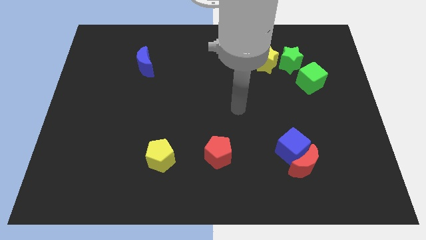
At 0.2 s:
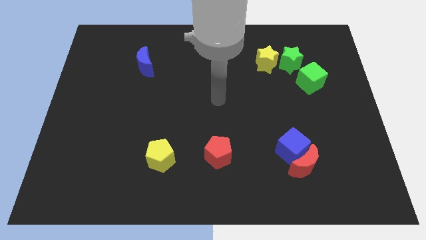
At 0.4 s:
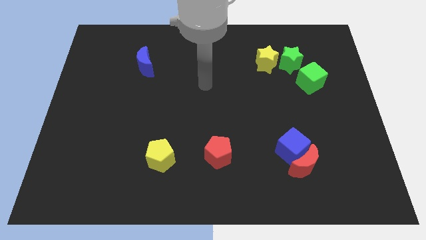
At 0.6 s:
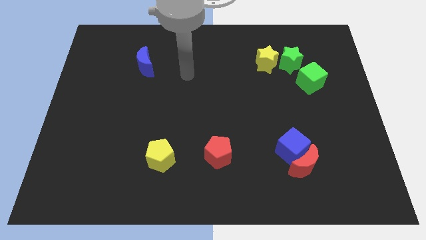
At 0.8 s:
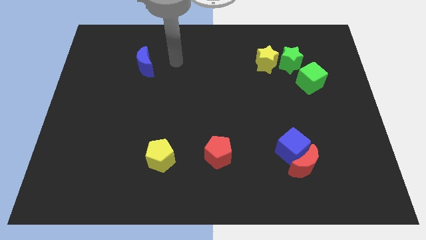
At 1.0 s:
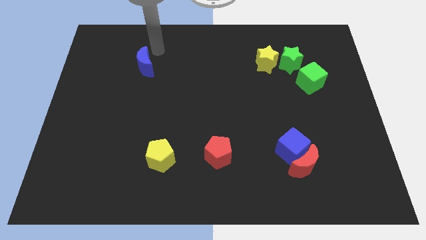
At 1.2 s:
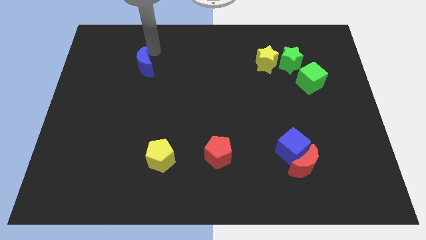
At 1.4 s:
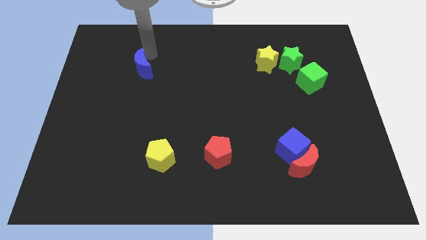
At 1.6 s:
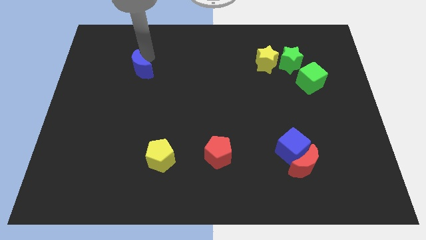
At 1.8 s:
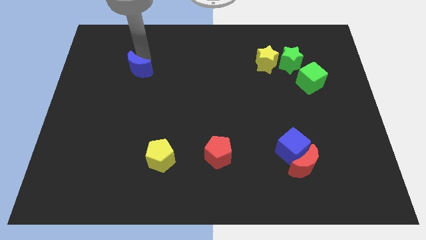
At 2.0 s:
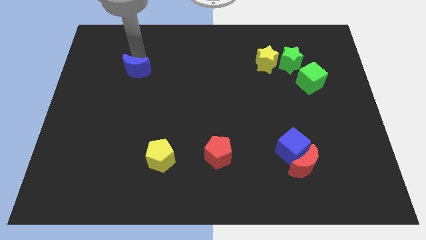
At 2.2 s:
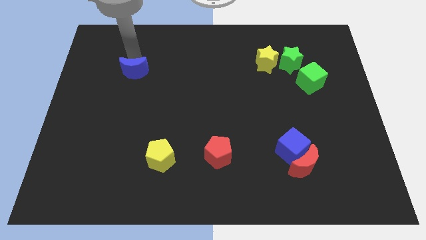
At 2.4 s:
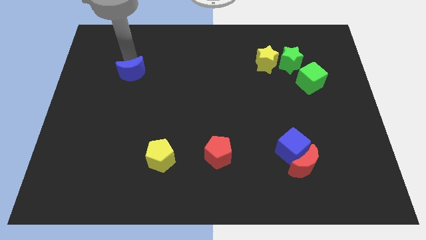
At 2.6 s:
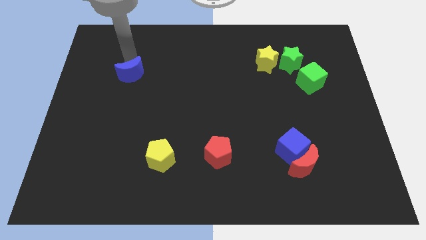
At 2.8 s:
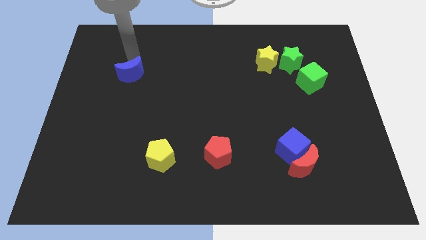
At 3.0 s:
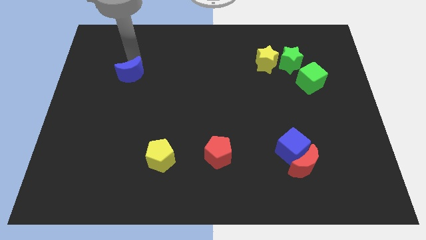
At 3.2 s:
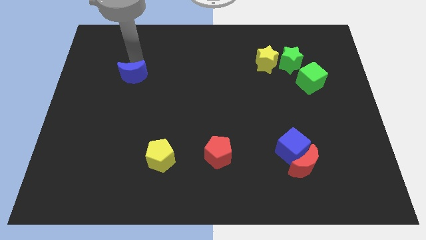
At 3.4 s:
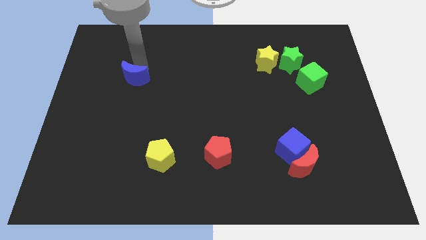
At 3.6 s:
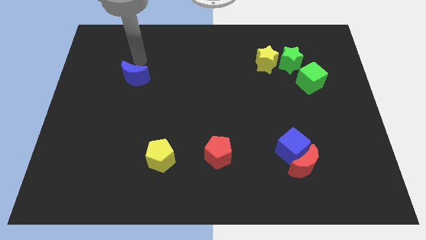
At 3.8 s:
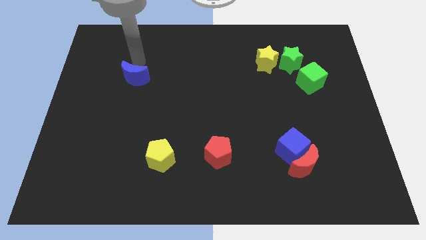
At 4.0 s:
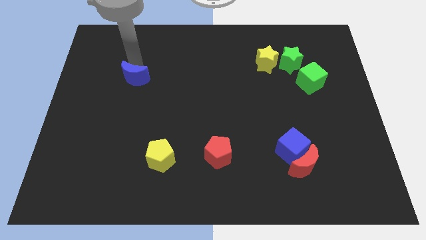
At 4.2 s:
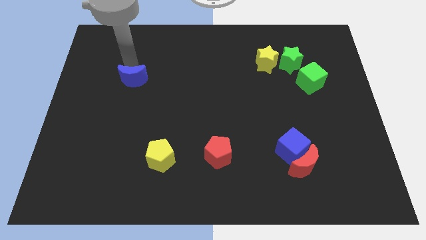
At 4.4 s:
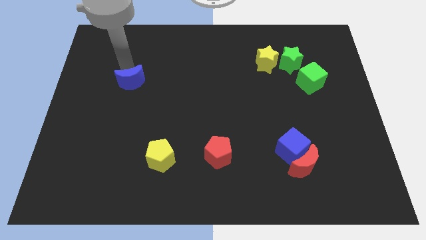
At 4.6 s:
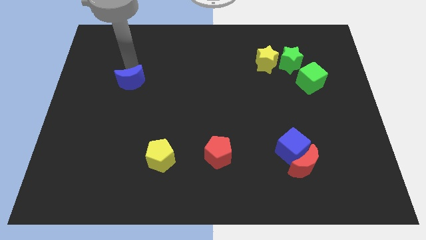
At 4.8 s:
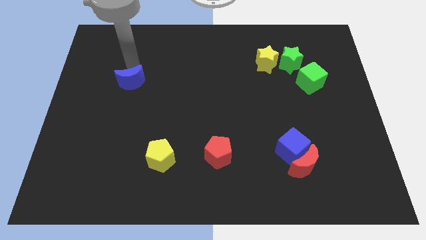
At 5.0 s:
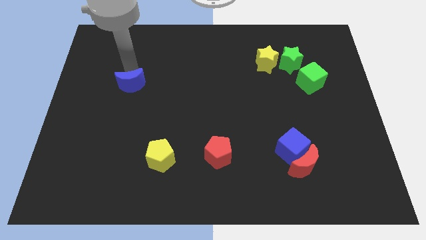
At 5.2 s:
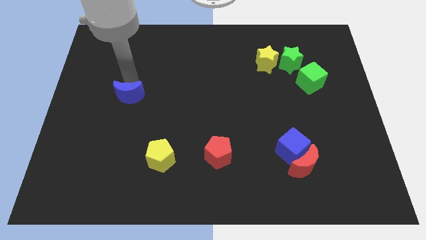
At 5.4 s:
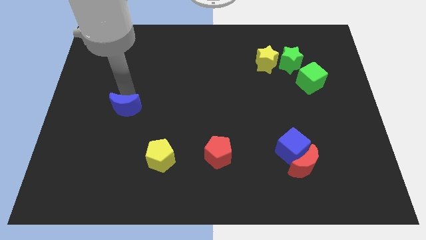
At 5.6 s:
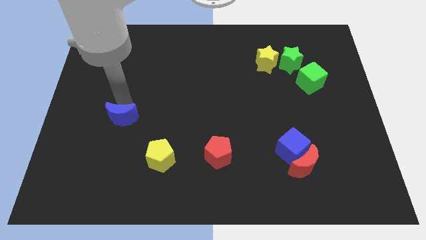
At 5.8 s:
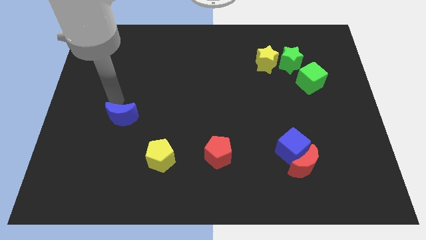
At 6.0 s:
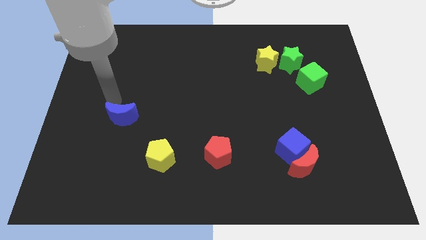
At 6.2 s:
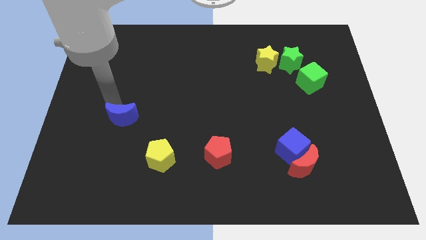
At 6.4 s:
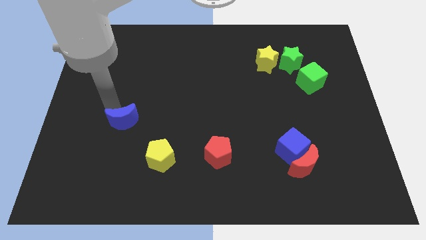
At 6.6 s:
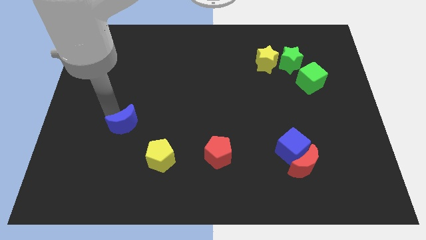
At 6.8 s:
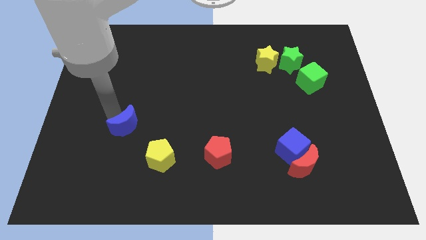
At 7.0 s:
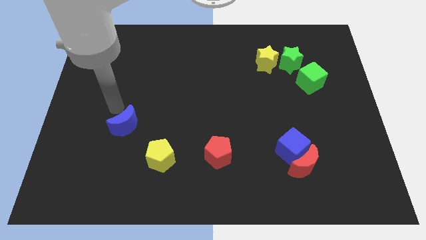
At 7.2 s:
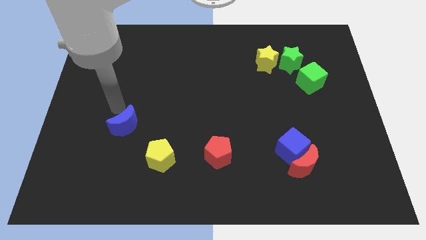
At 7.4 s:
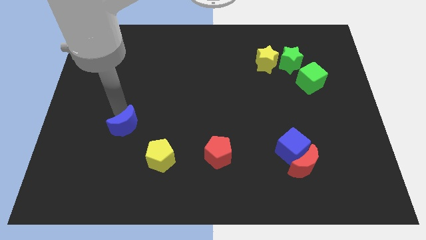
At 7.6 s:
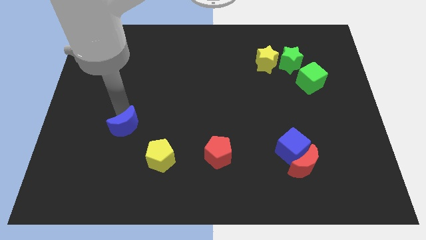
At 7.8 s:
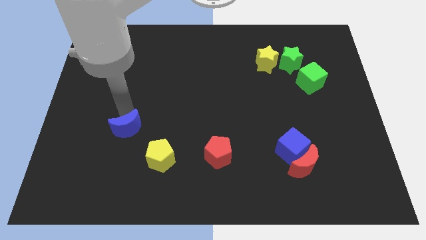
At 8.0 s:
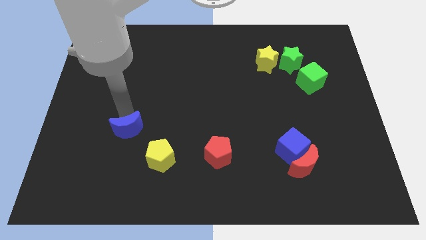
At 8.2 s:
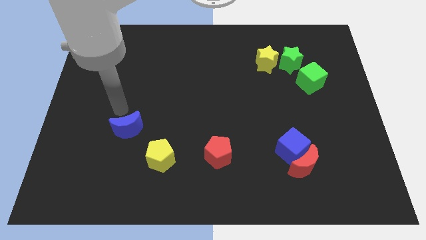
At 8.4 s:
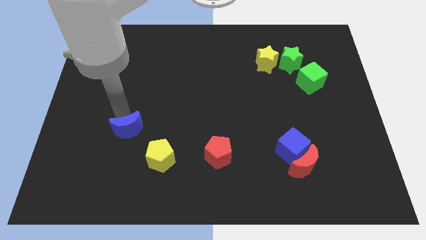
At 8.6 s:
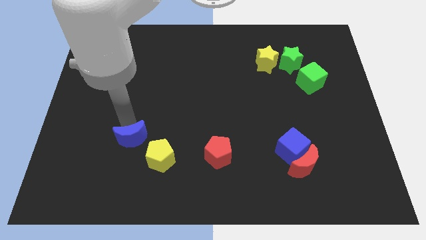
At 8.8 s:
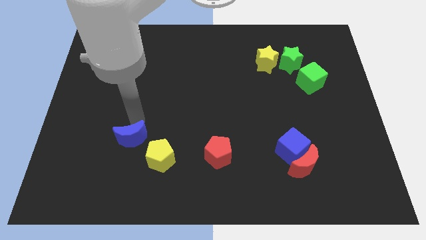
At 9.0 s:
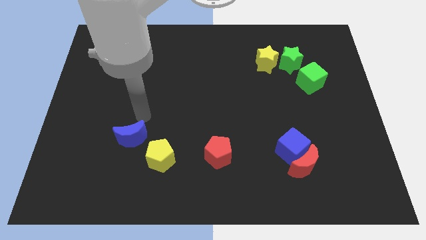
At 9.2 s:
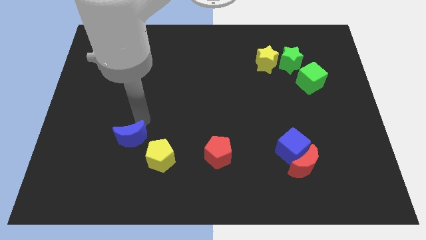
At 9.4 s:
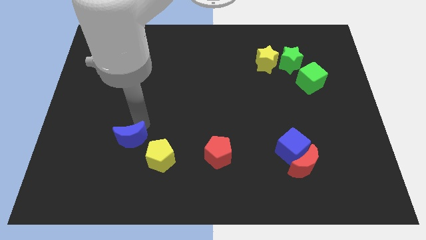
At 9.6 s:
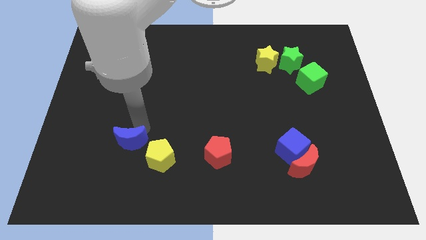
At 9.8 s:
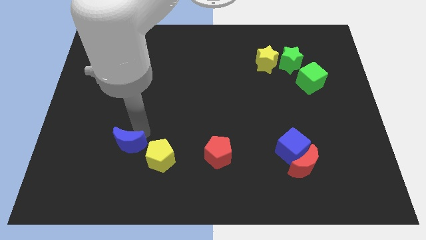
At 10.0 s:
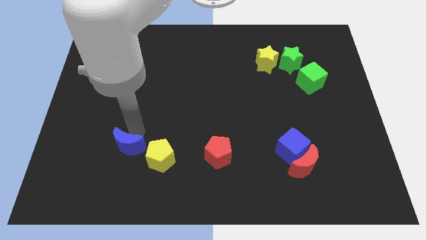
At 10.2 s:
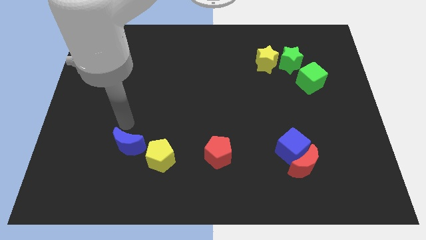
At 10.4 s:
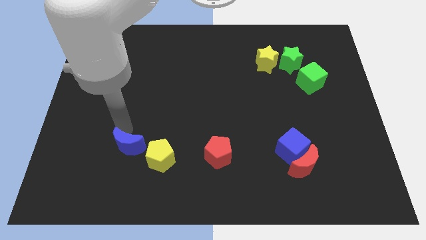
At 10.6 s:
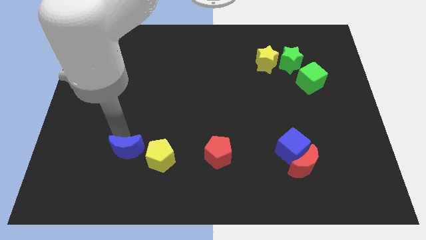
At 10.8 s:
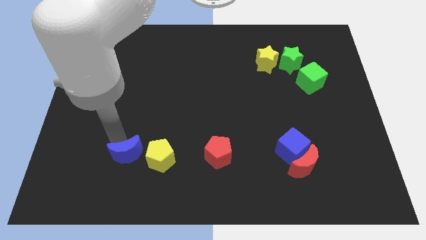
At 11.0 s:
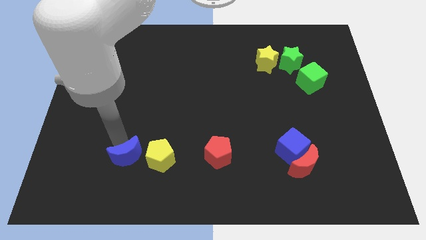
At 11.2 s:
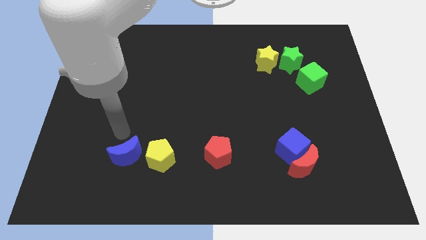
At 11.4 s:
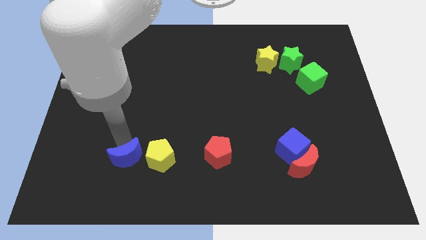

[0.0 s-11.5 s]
push the blue moon to the bottom left side of the yellow pentagon

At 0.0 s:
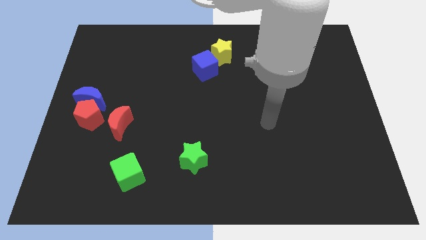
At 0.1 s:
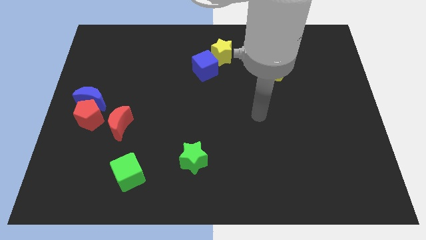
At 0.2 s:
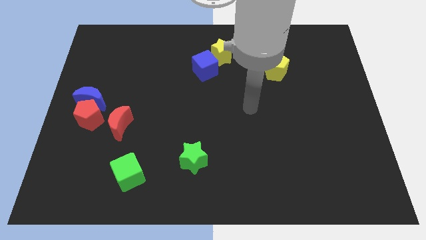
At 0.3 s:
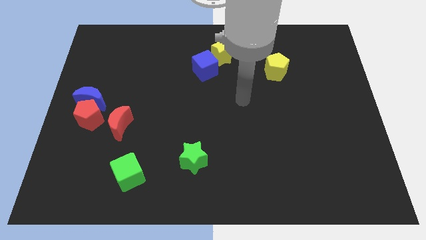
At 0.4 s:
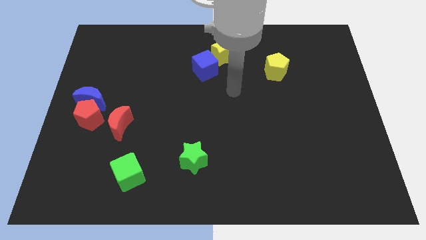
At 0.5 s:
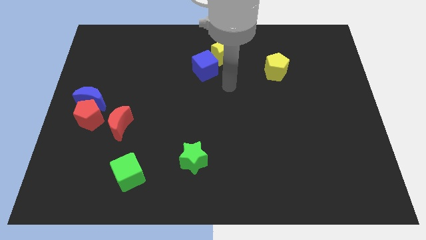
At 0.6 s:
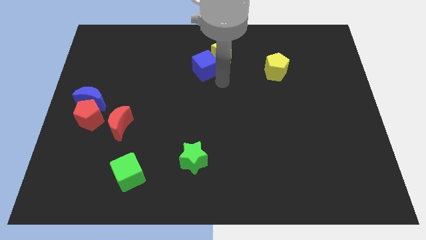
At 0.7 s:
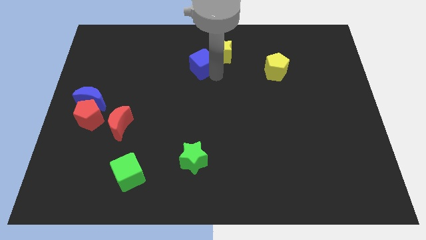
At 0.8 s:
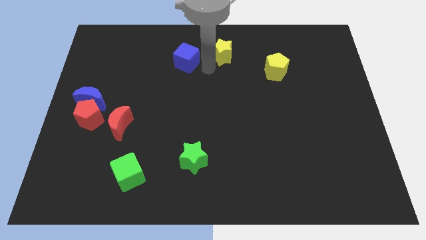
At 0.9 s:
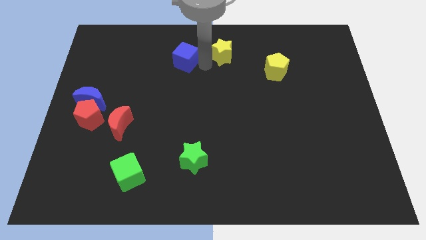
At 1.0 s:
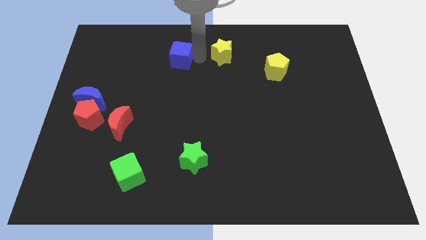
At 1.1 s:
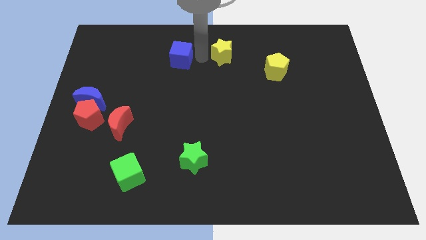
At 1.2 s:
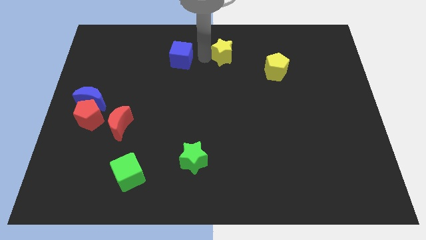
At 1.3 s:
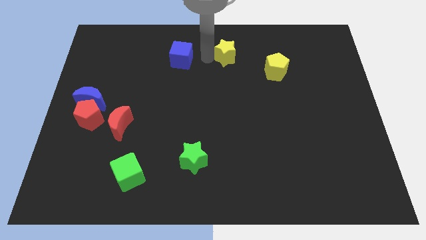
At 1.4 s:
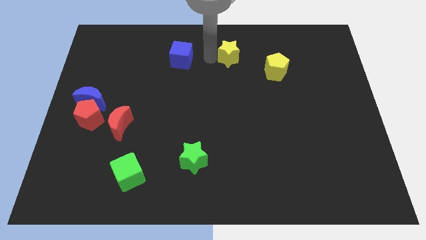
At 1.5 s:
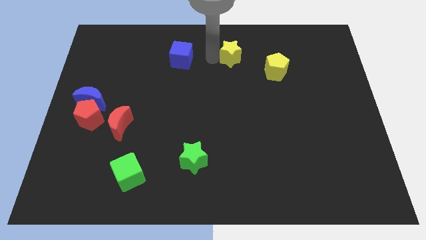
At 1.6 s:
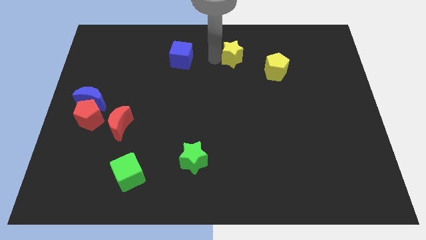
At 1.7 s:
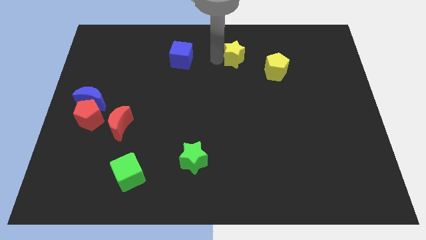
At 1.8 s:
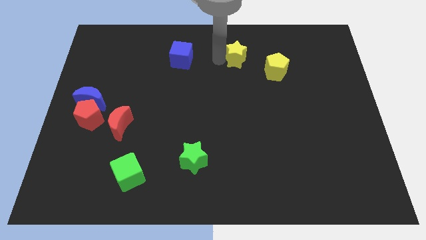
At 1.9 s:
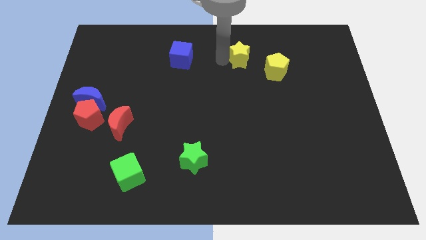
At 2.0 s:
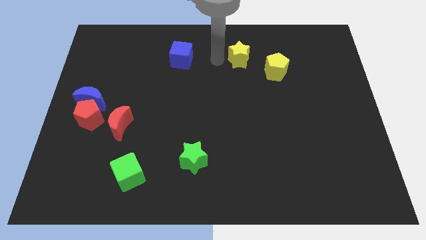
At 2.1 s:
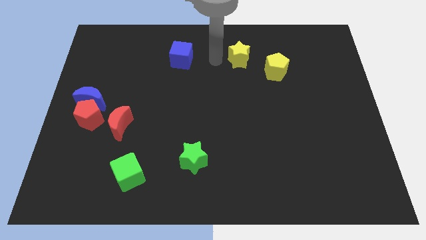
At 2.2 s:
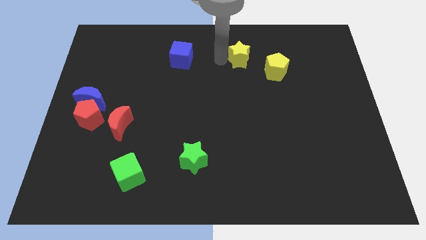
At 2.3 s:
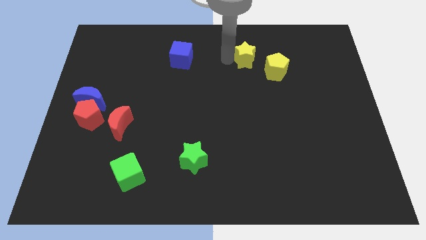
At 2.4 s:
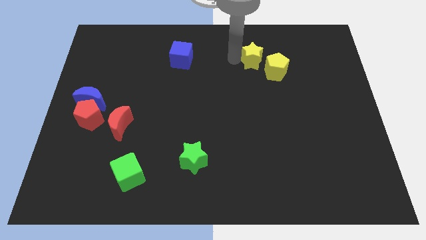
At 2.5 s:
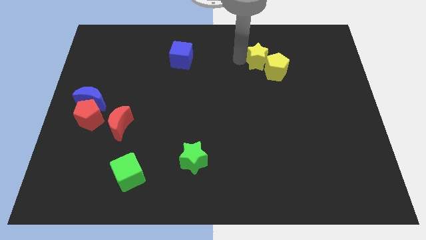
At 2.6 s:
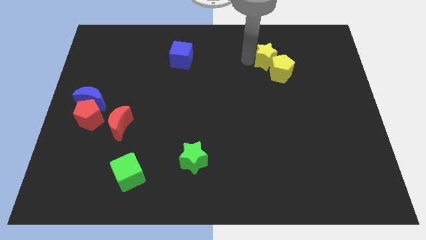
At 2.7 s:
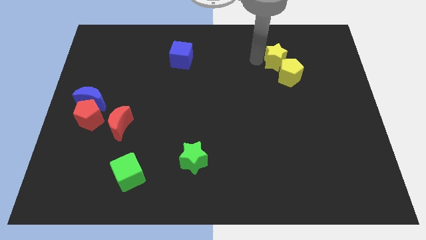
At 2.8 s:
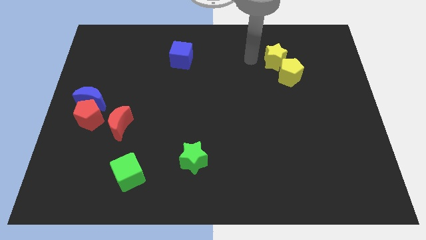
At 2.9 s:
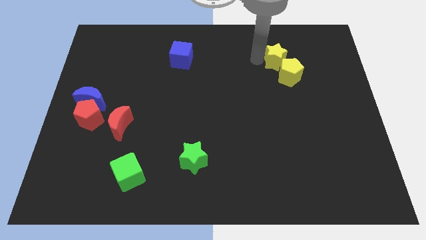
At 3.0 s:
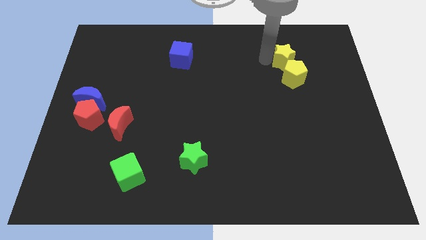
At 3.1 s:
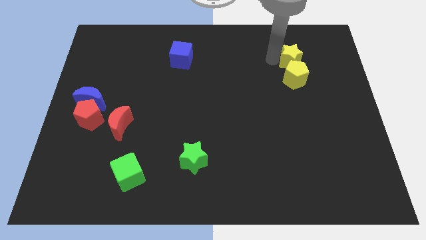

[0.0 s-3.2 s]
slide the yellow star diagonally up and to the right of the yellow pentagon
